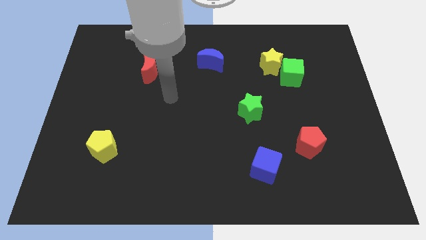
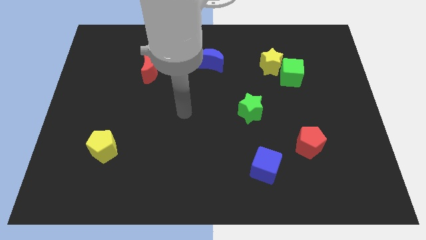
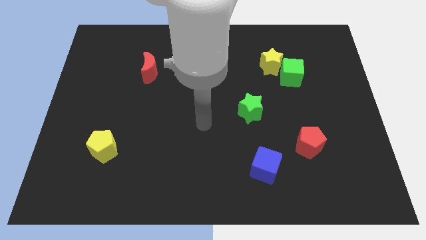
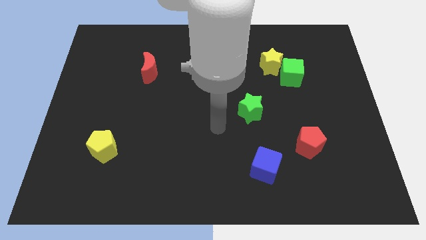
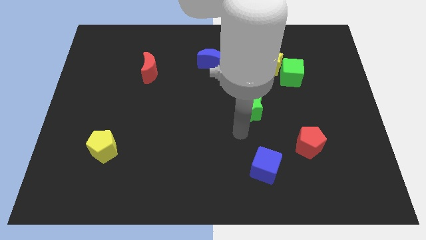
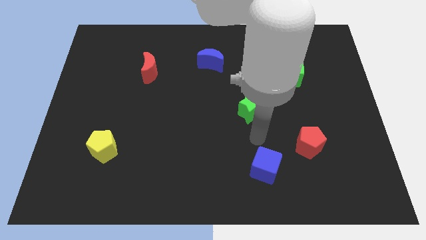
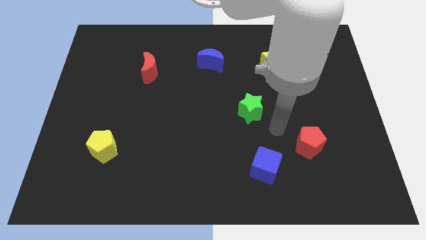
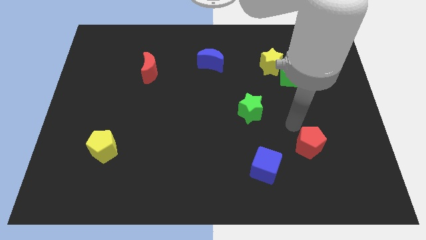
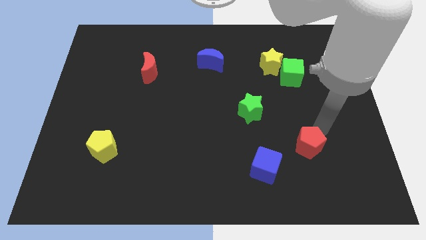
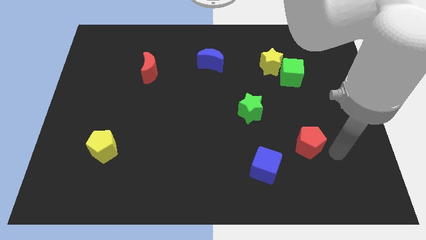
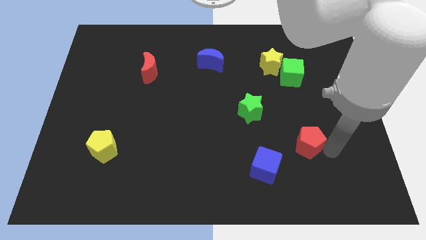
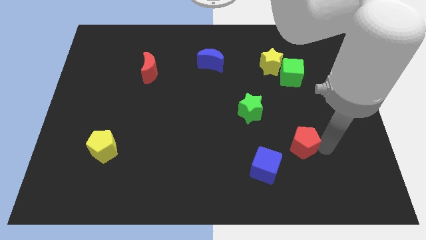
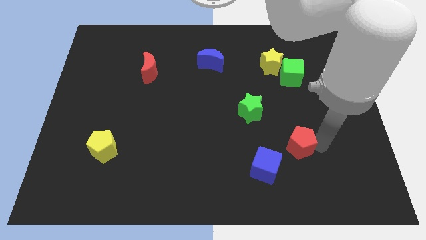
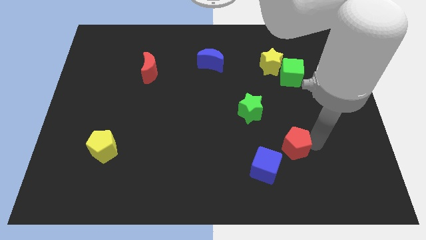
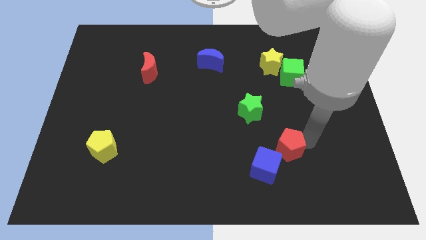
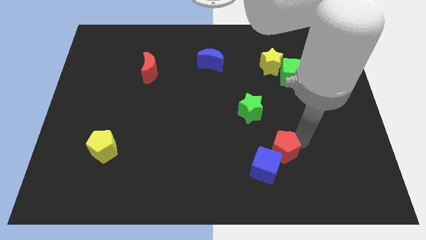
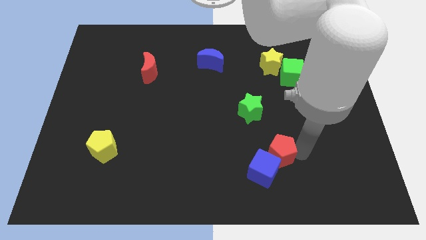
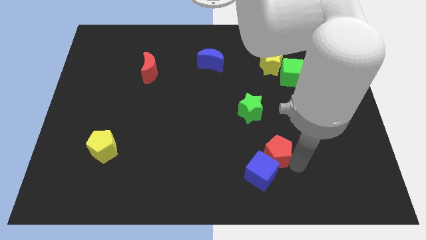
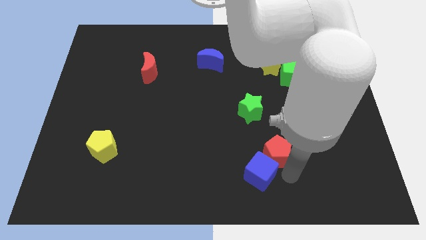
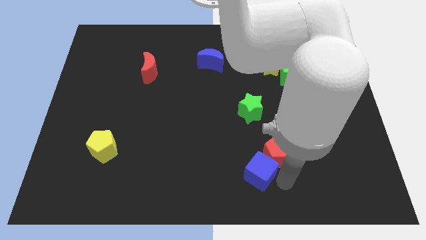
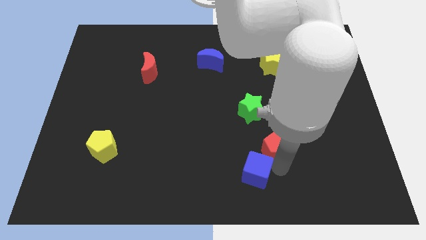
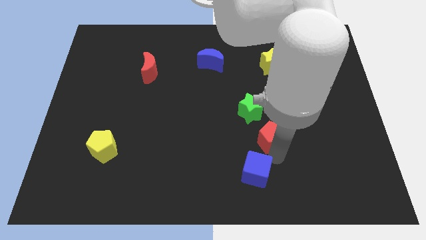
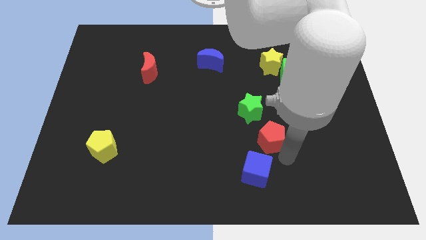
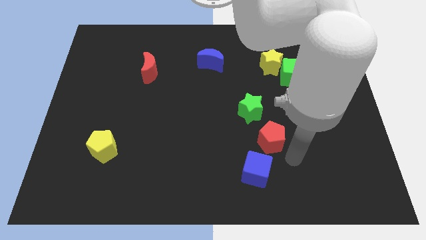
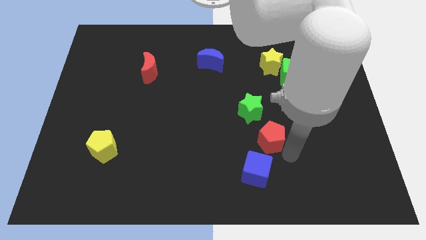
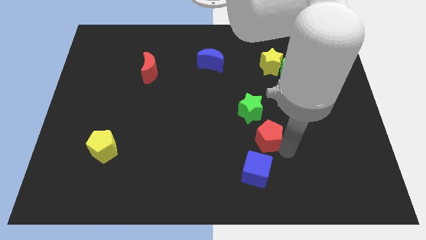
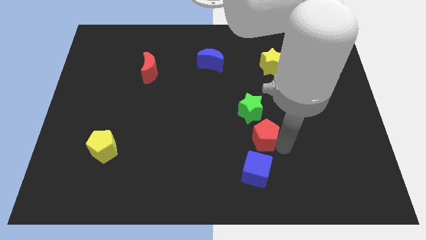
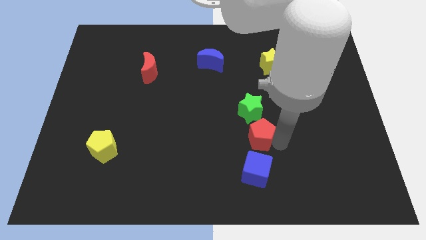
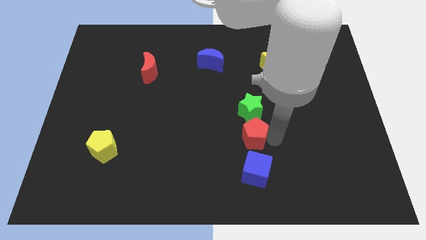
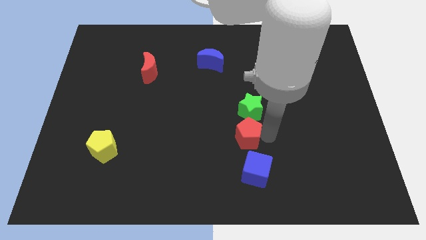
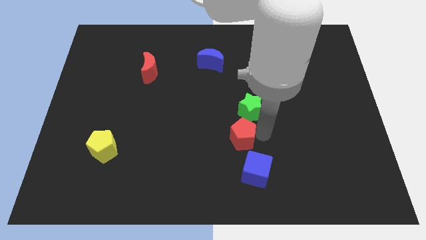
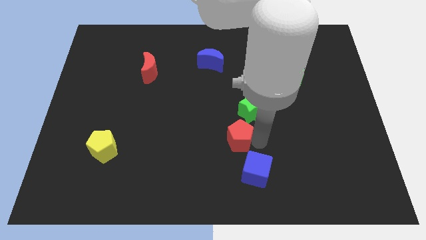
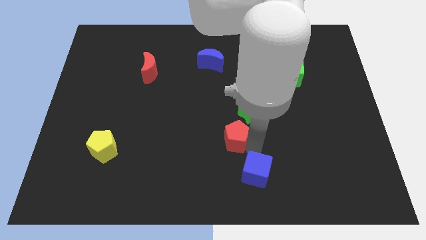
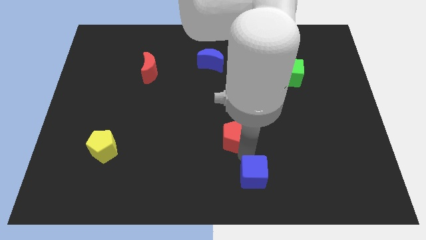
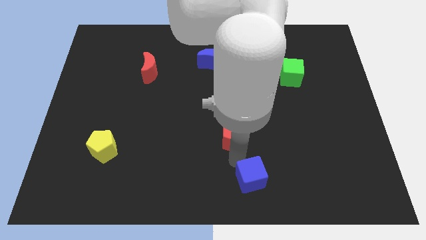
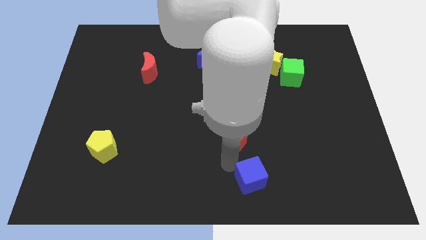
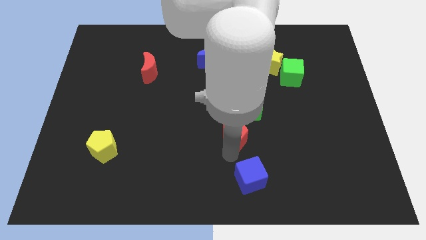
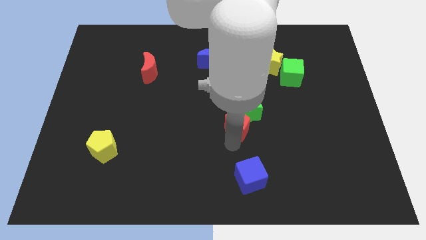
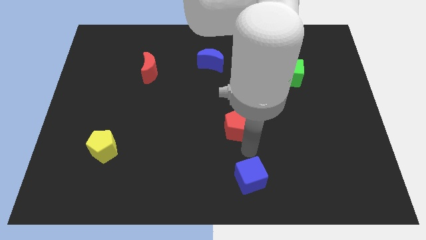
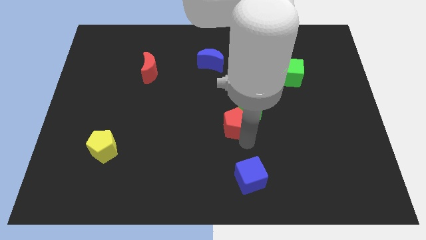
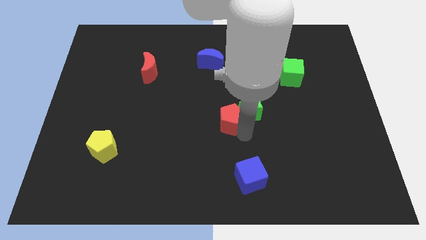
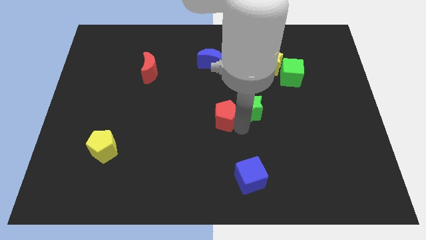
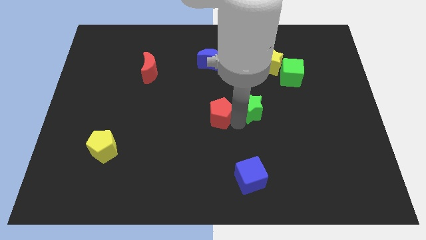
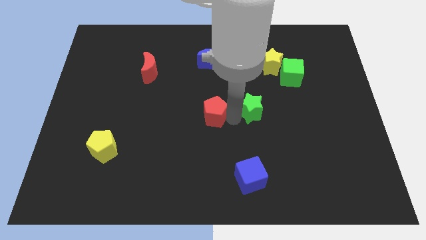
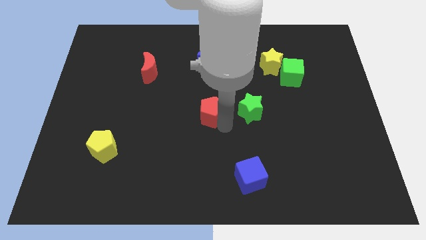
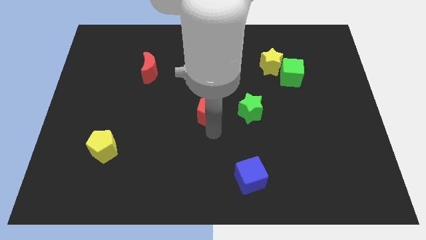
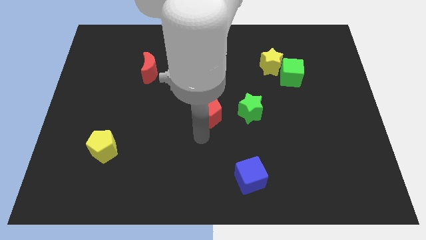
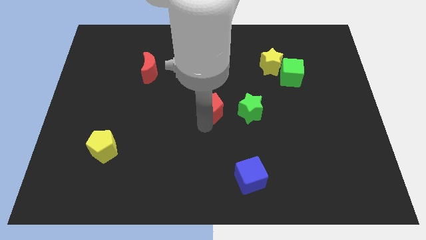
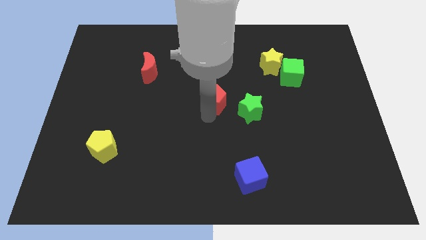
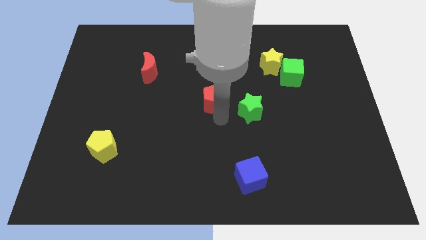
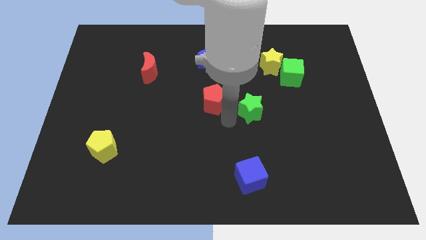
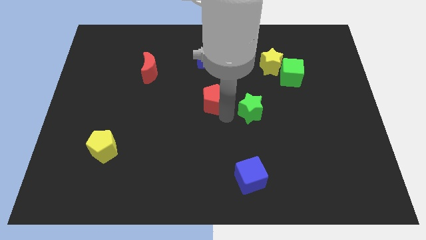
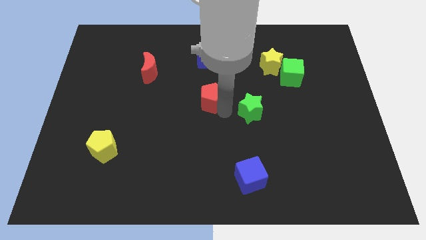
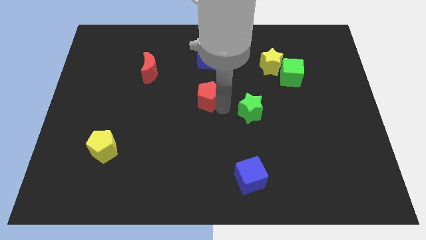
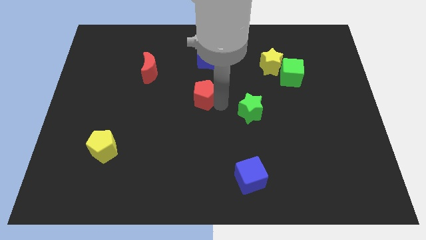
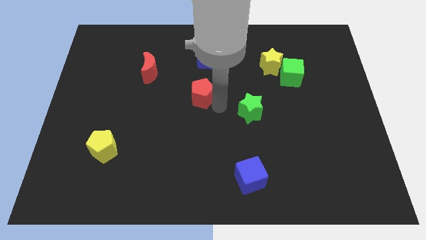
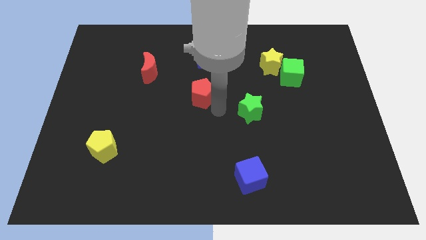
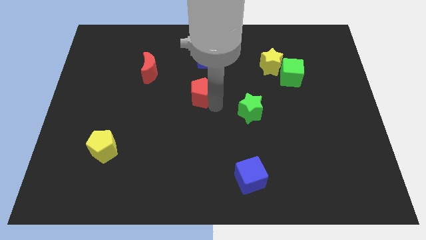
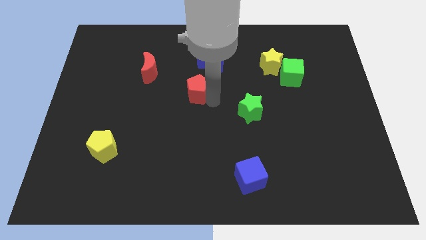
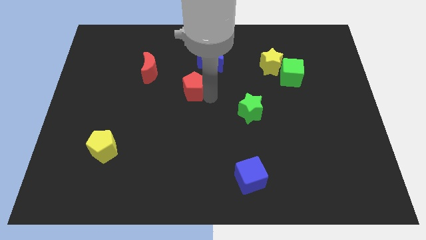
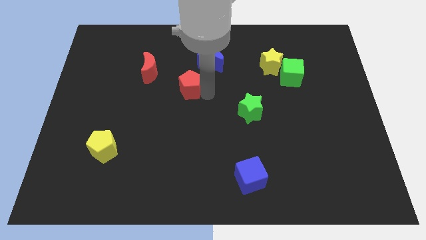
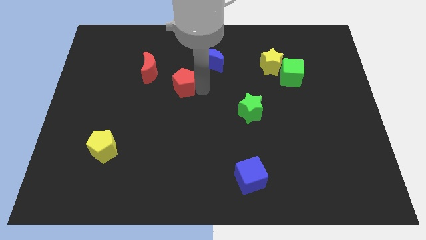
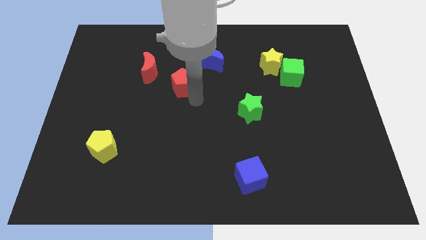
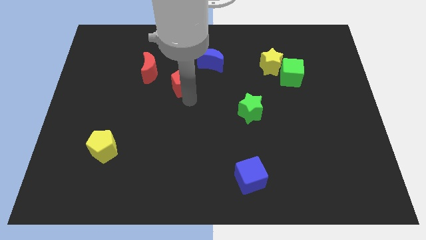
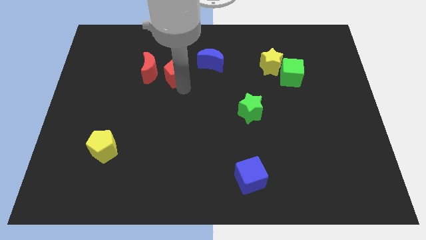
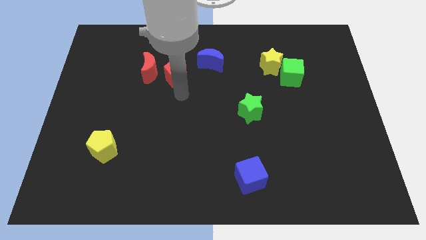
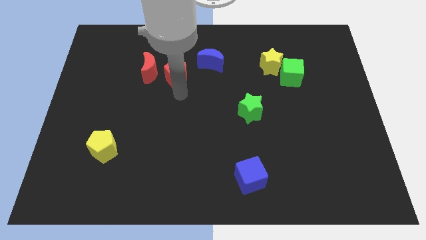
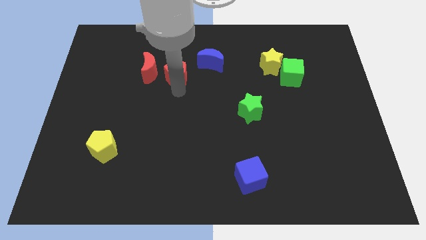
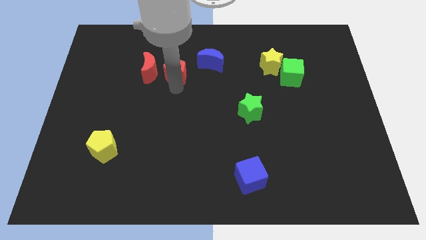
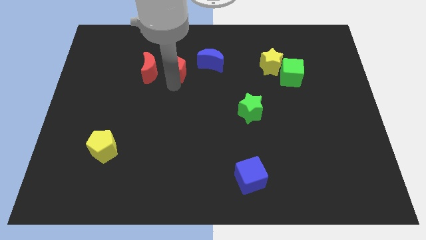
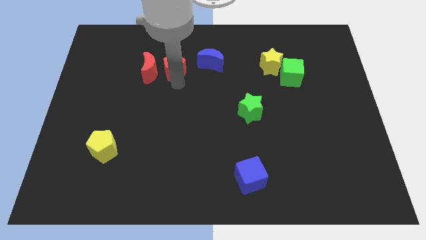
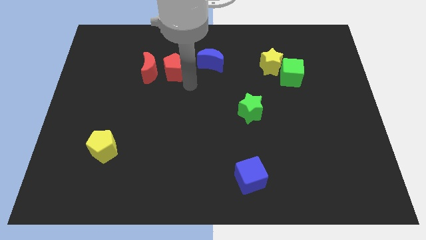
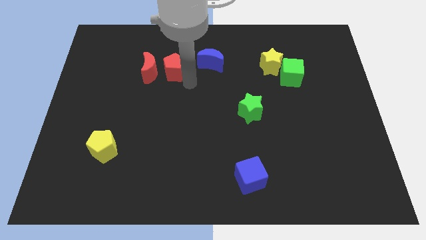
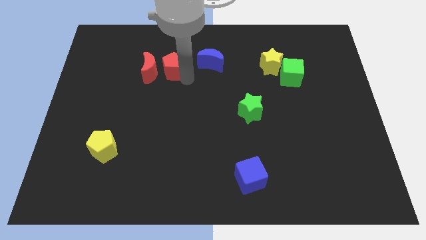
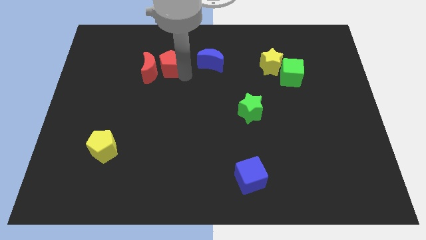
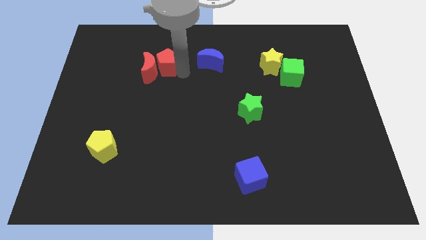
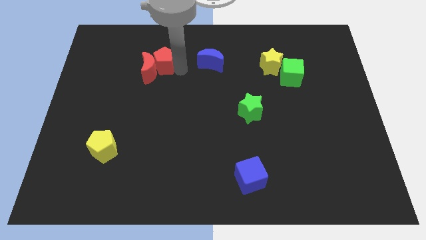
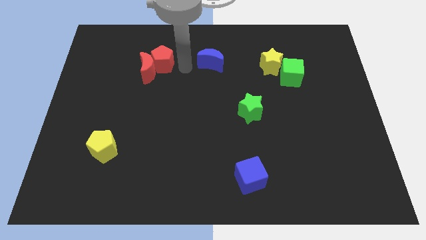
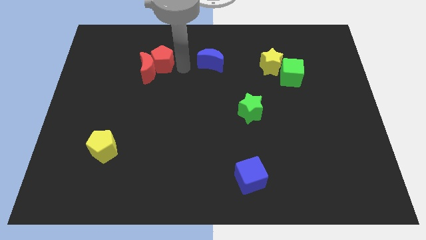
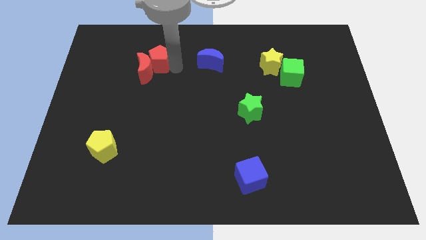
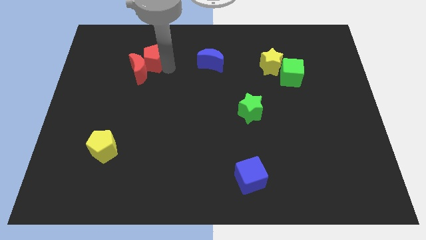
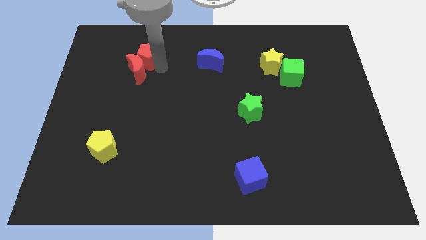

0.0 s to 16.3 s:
put the red pentagon diagonally up and to the left of the red moon
